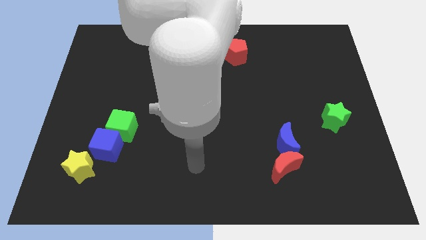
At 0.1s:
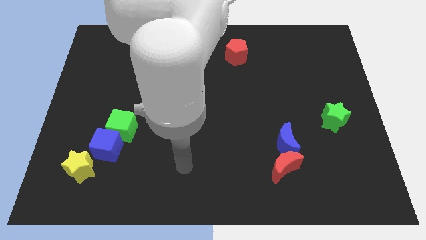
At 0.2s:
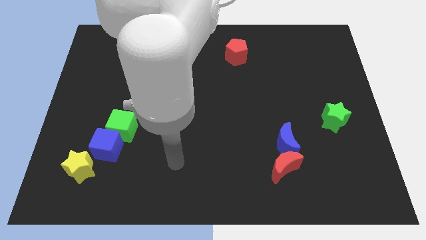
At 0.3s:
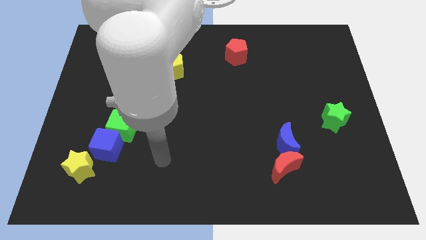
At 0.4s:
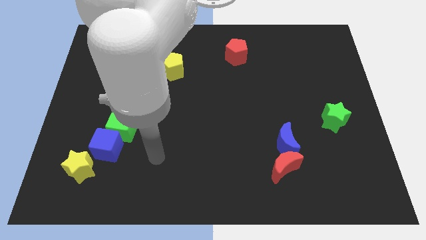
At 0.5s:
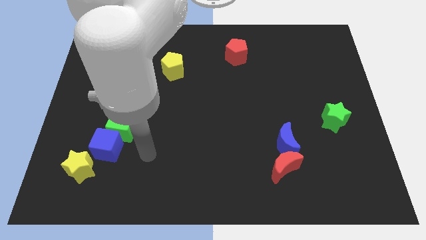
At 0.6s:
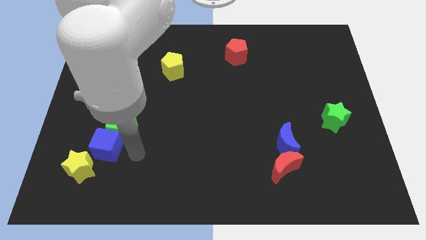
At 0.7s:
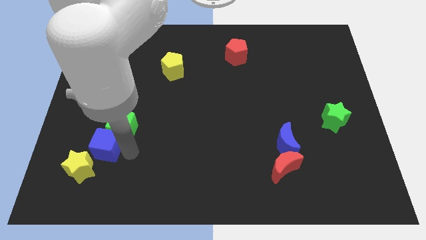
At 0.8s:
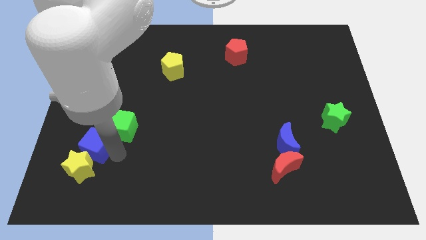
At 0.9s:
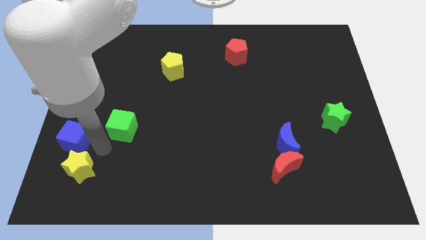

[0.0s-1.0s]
separate the green cube from the blue cube

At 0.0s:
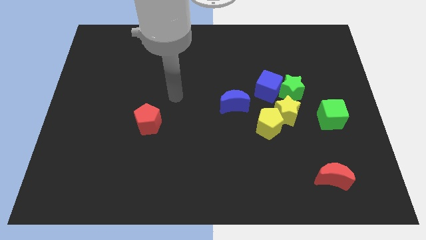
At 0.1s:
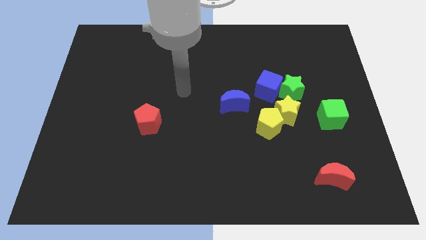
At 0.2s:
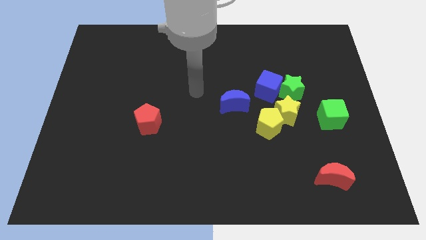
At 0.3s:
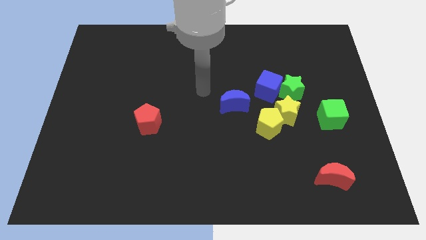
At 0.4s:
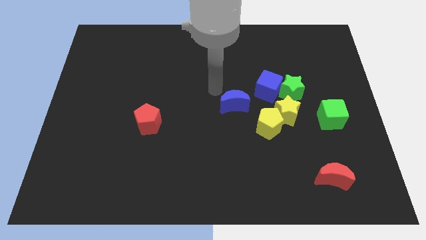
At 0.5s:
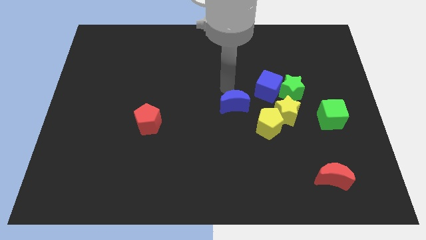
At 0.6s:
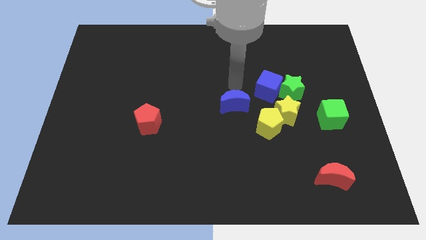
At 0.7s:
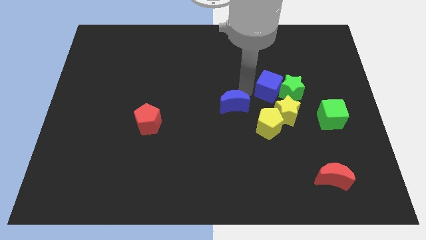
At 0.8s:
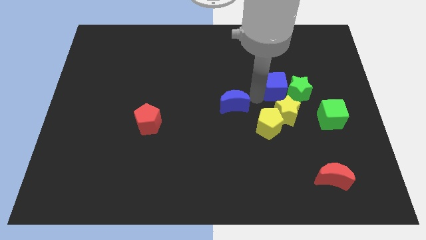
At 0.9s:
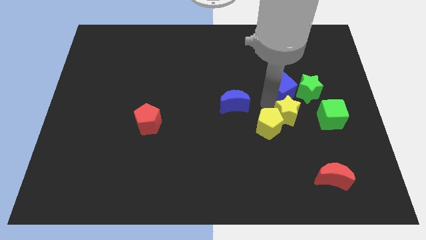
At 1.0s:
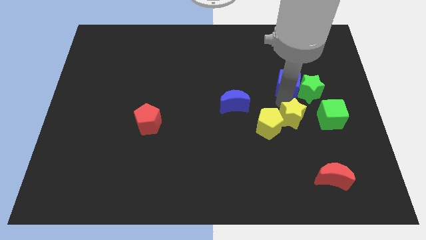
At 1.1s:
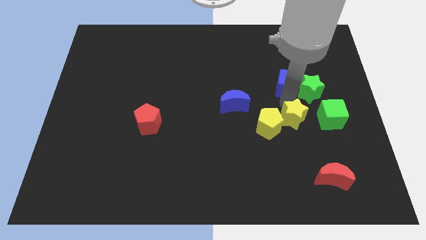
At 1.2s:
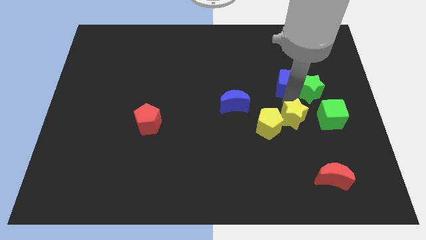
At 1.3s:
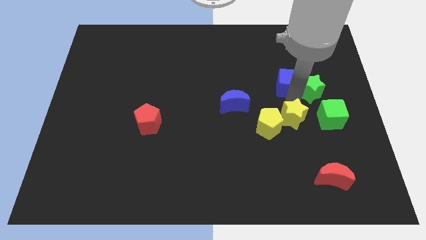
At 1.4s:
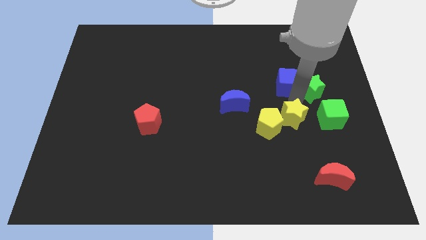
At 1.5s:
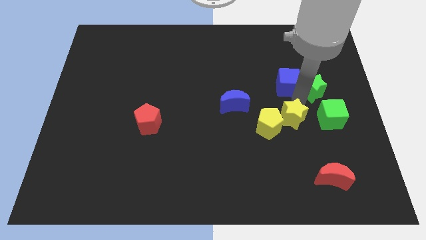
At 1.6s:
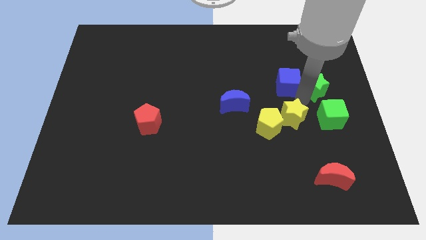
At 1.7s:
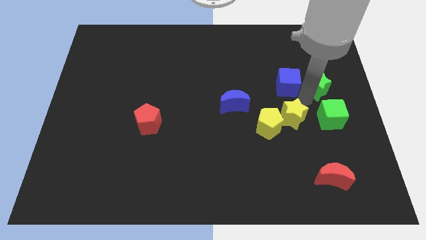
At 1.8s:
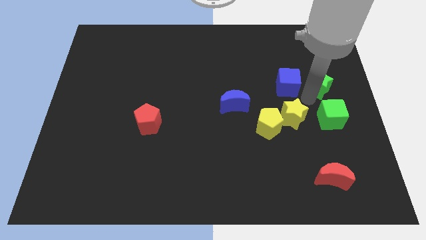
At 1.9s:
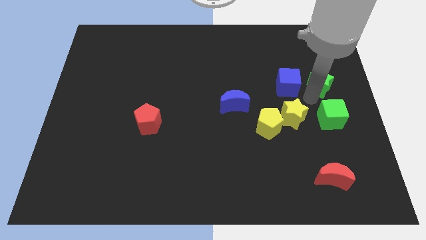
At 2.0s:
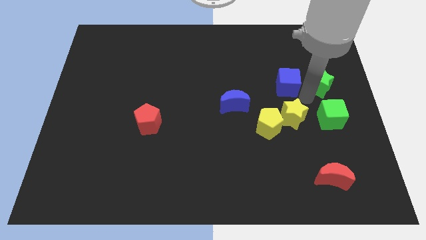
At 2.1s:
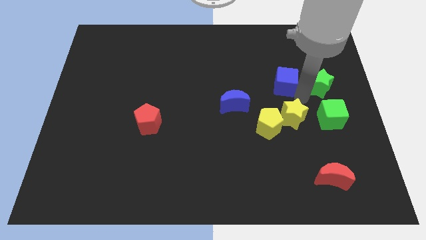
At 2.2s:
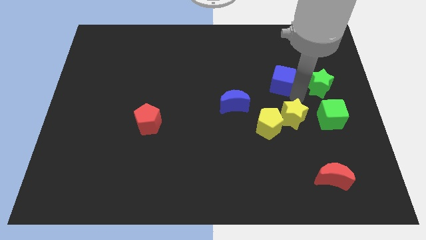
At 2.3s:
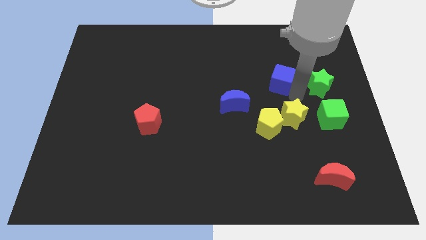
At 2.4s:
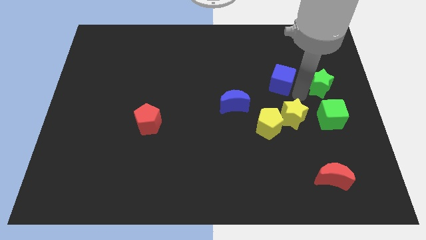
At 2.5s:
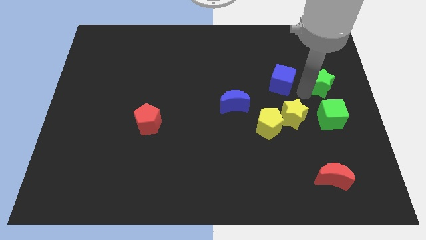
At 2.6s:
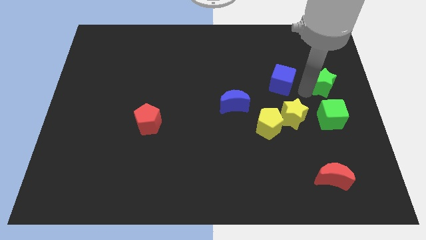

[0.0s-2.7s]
separate the green star from the blue cube and yellow star

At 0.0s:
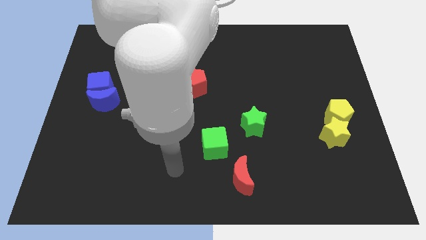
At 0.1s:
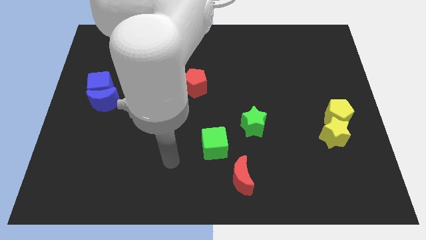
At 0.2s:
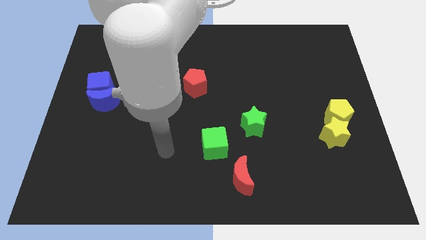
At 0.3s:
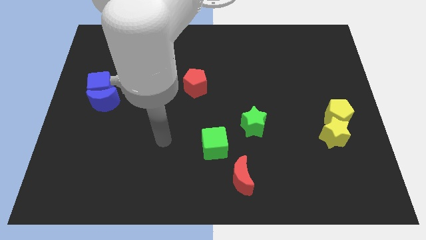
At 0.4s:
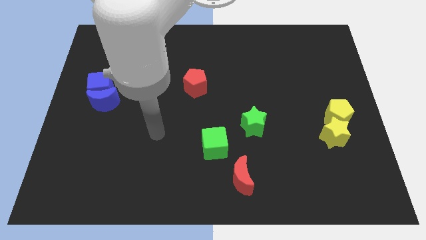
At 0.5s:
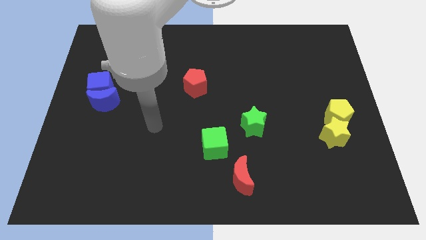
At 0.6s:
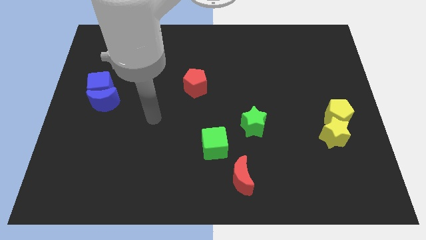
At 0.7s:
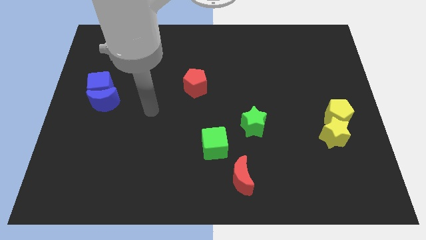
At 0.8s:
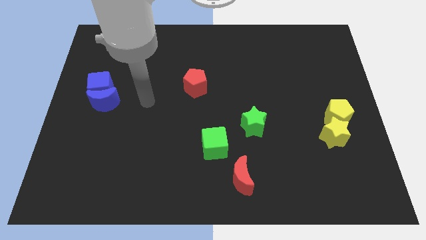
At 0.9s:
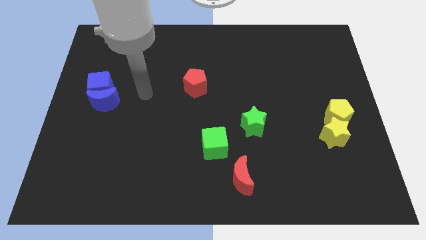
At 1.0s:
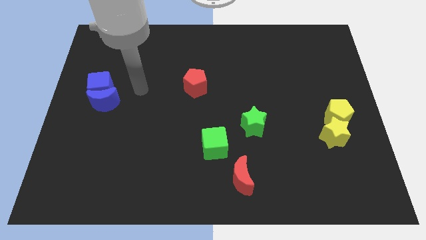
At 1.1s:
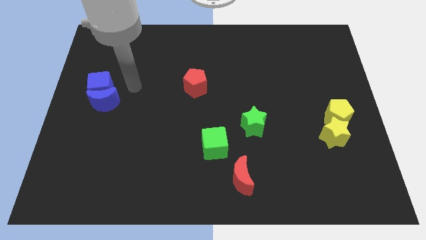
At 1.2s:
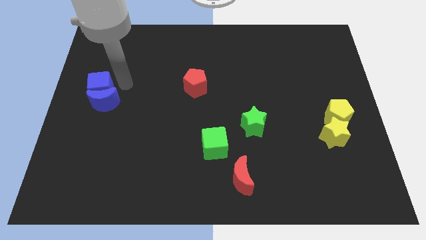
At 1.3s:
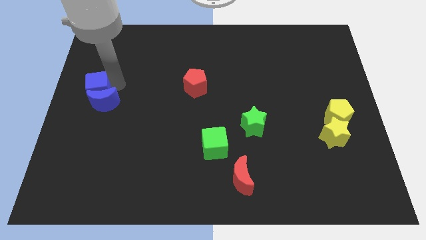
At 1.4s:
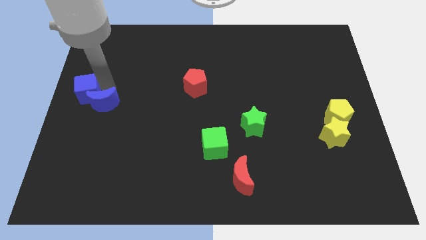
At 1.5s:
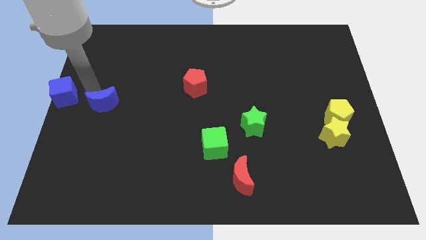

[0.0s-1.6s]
separate the blue moon from the blue cube

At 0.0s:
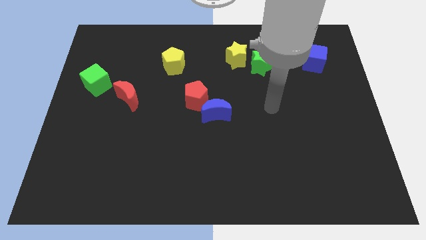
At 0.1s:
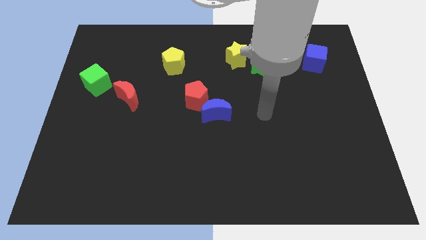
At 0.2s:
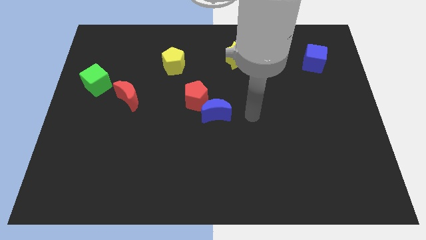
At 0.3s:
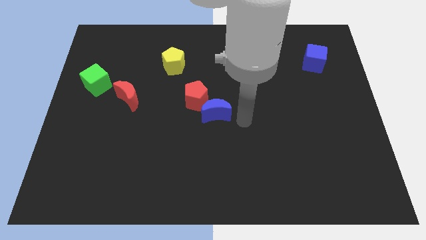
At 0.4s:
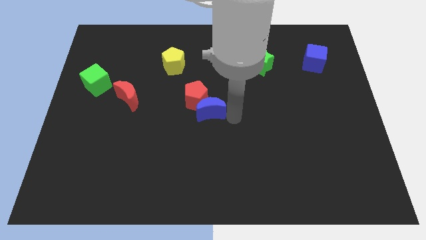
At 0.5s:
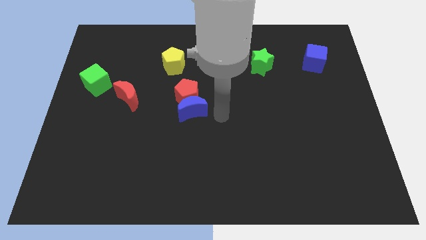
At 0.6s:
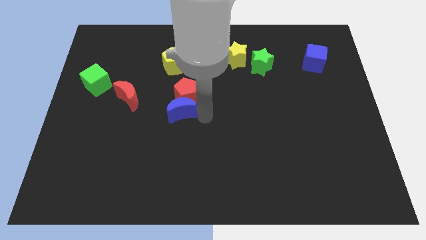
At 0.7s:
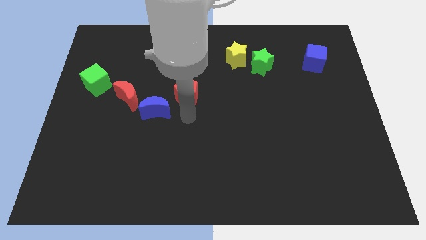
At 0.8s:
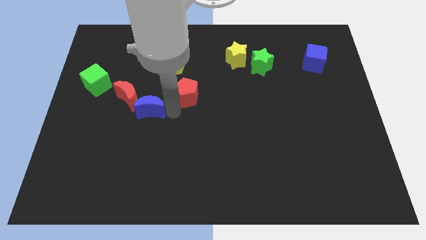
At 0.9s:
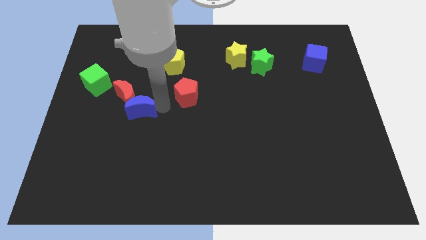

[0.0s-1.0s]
separate the red pentagon from the blue moon

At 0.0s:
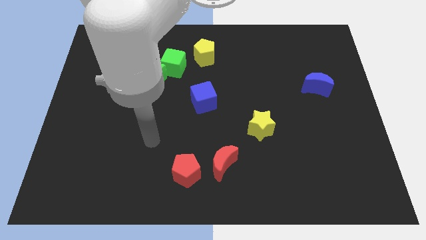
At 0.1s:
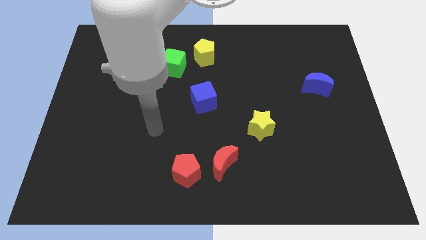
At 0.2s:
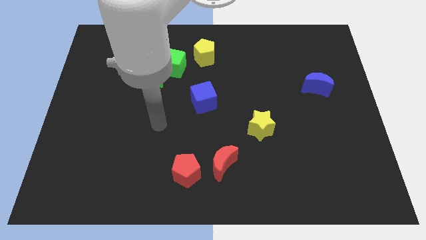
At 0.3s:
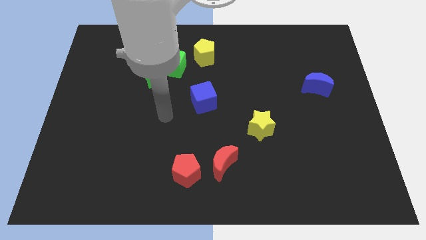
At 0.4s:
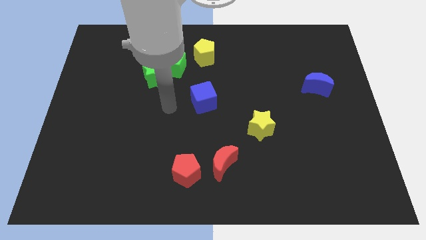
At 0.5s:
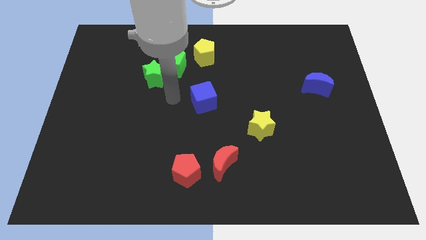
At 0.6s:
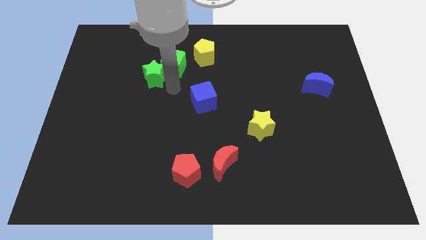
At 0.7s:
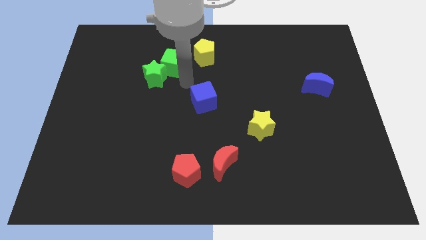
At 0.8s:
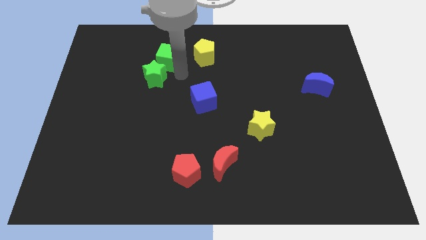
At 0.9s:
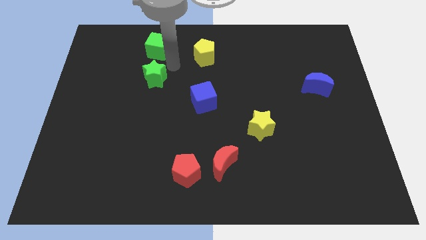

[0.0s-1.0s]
move the green star away from the green cube

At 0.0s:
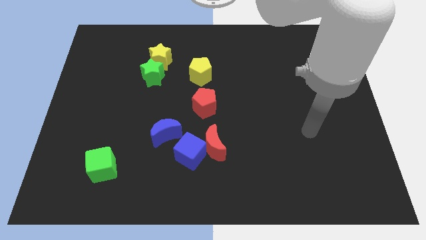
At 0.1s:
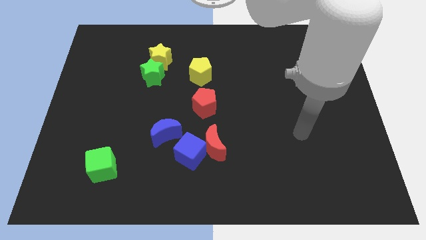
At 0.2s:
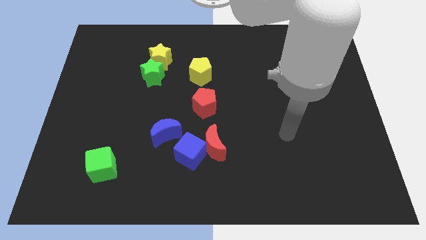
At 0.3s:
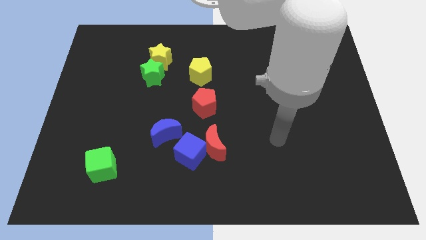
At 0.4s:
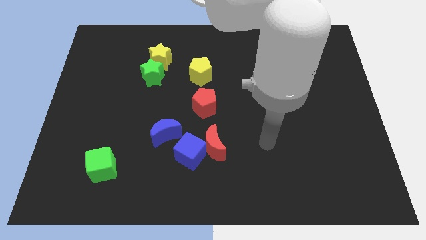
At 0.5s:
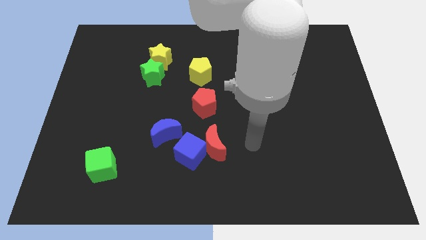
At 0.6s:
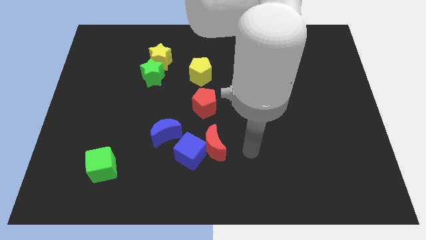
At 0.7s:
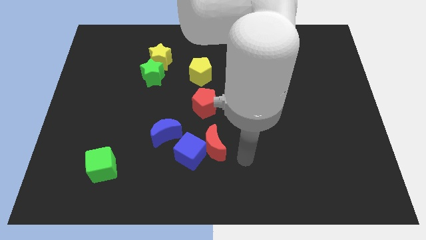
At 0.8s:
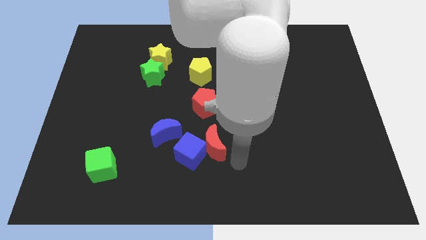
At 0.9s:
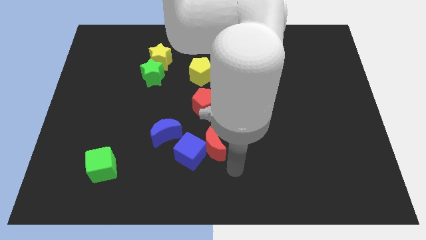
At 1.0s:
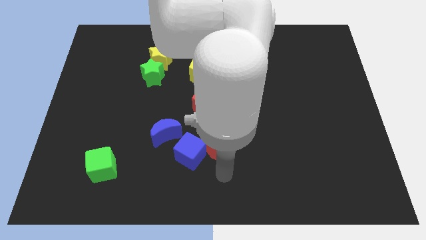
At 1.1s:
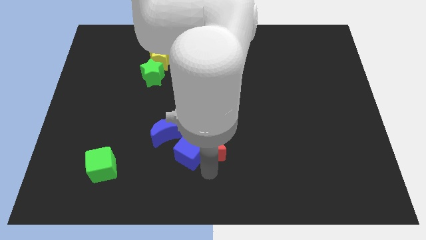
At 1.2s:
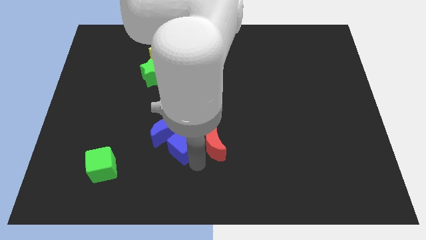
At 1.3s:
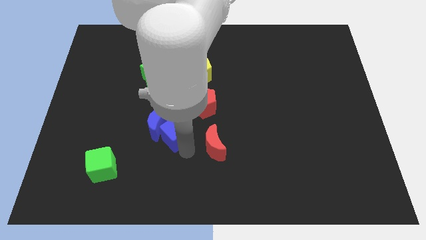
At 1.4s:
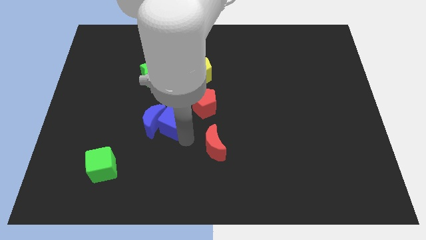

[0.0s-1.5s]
separate the red moon from the blue cube

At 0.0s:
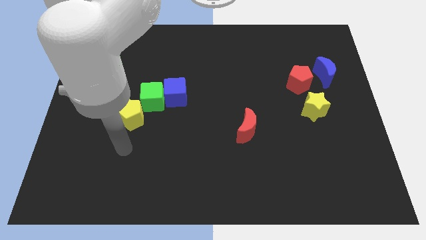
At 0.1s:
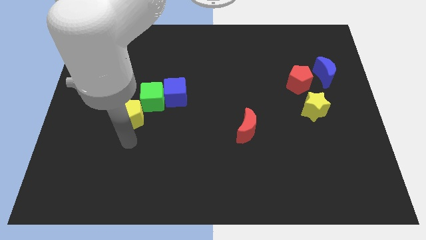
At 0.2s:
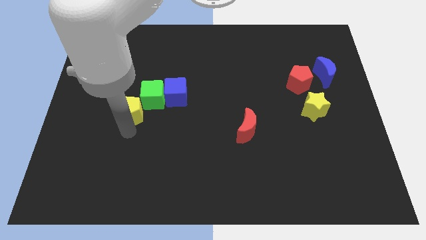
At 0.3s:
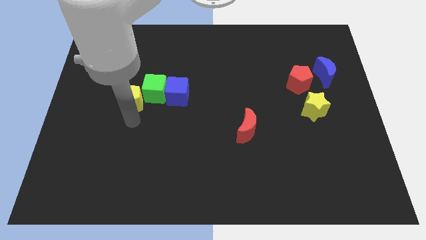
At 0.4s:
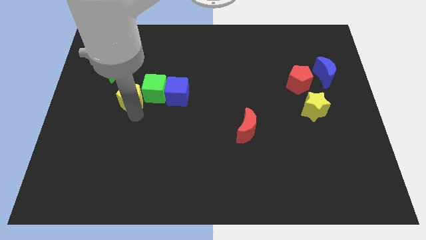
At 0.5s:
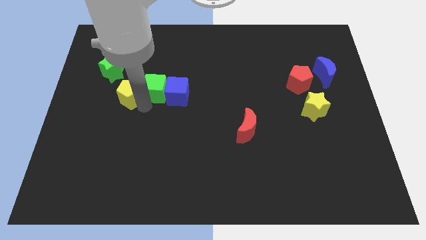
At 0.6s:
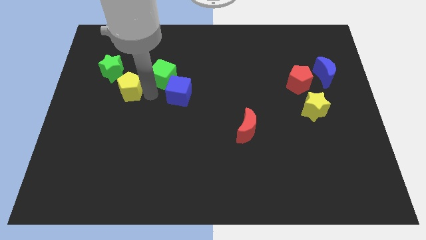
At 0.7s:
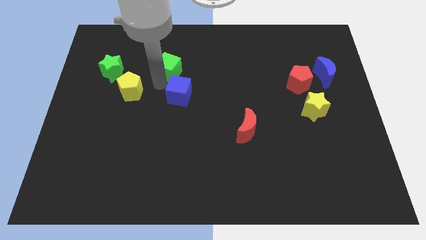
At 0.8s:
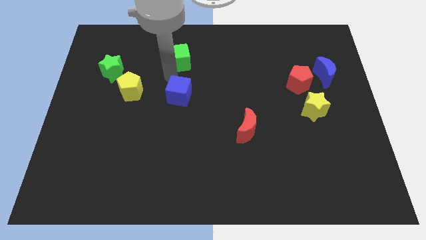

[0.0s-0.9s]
move the blue cube away from the green cube
